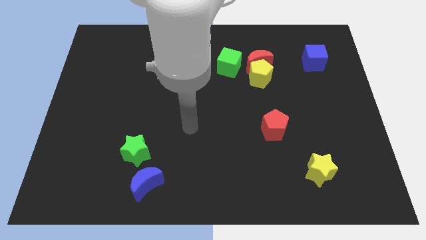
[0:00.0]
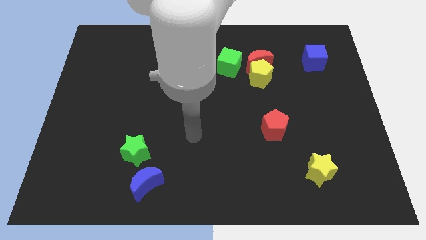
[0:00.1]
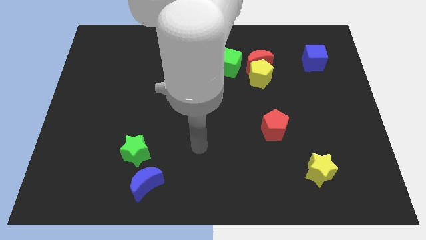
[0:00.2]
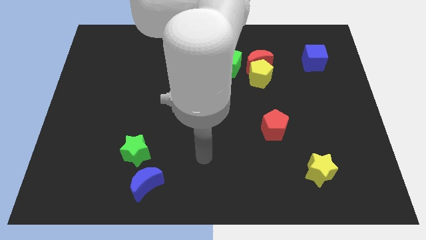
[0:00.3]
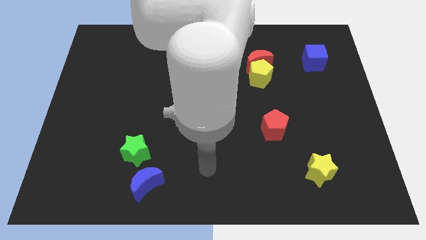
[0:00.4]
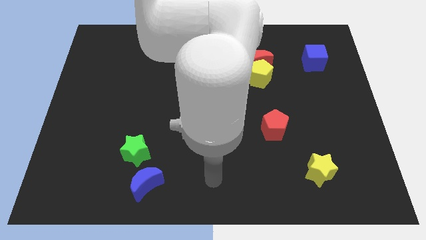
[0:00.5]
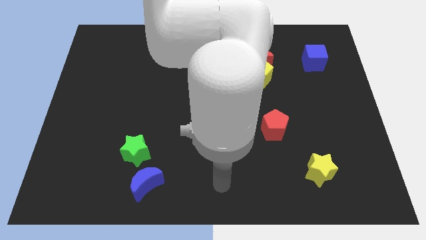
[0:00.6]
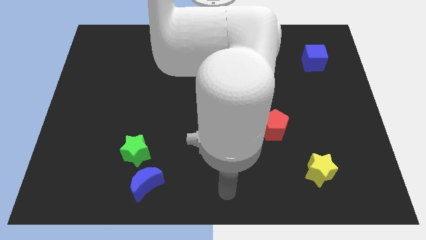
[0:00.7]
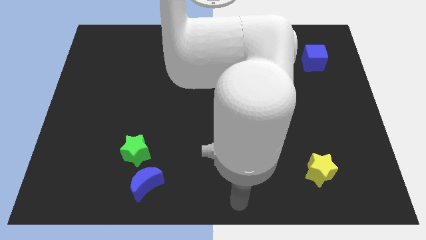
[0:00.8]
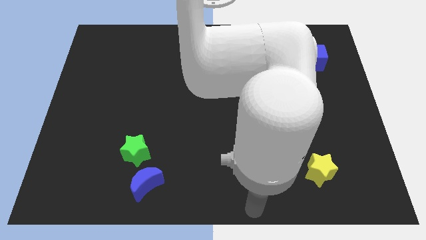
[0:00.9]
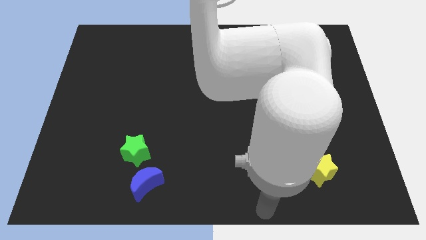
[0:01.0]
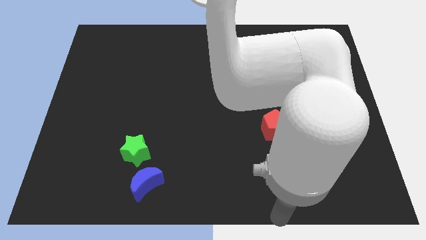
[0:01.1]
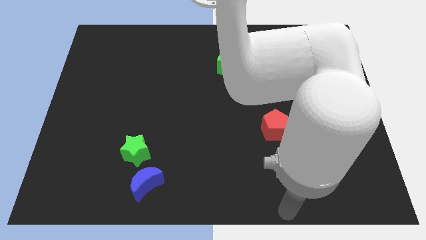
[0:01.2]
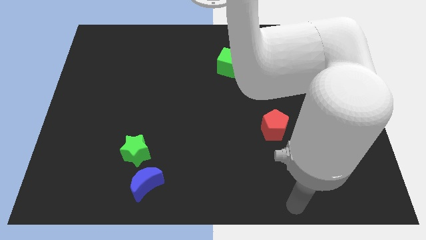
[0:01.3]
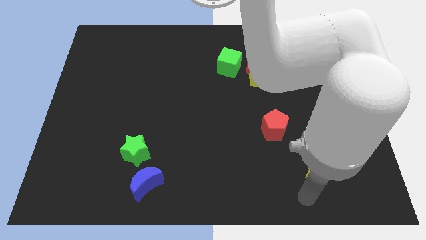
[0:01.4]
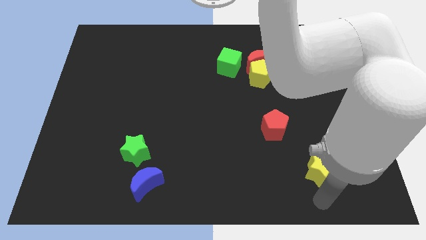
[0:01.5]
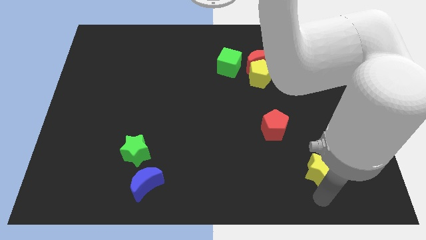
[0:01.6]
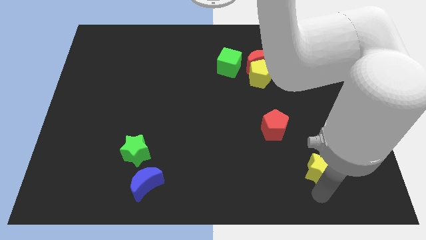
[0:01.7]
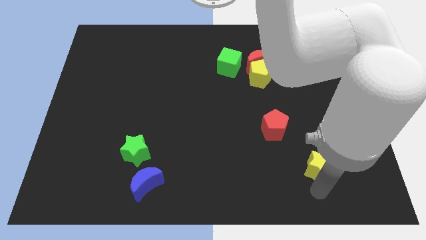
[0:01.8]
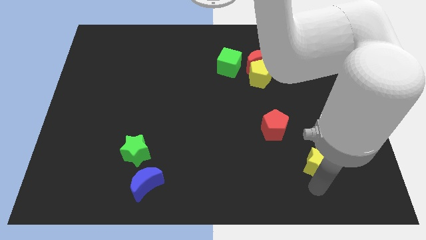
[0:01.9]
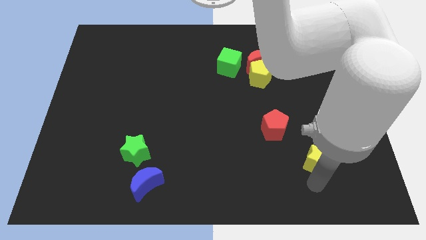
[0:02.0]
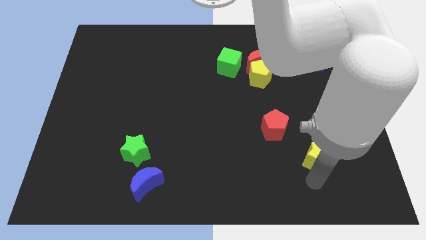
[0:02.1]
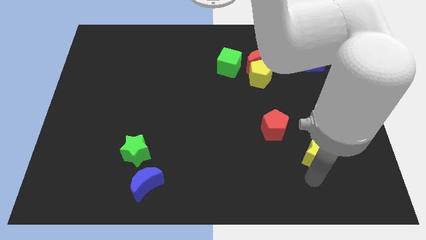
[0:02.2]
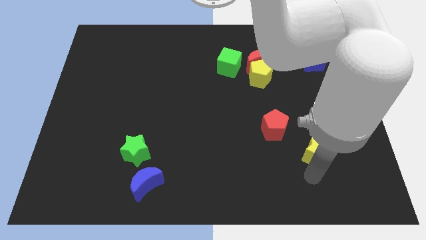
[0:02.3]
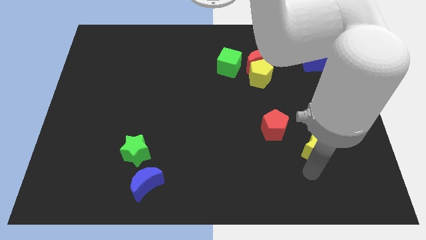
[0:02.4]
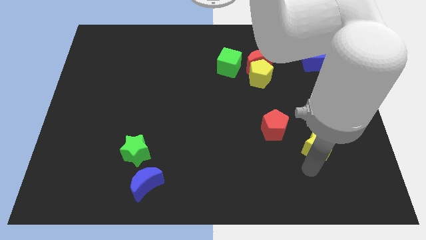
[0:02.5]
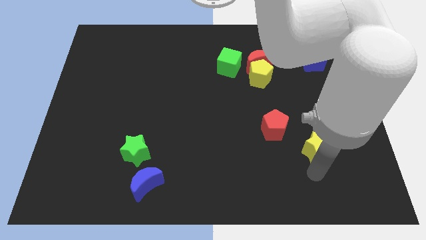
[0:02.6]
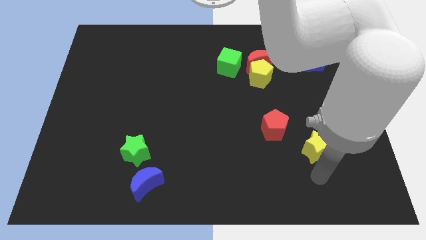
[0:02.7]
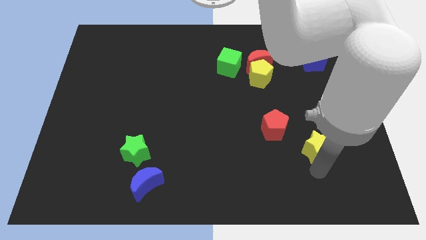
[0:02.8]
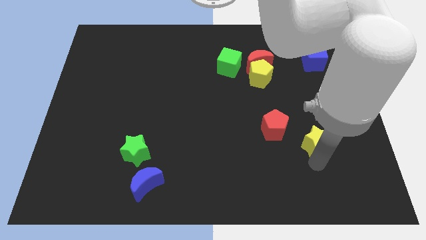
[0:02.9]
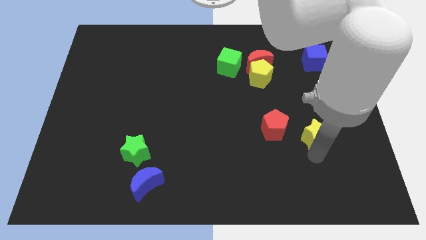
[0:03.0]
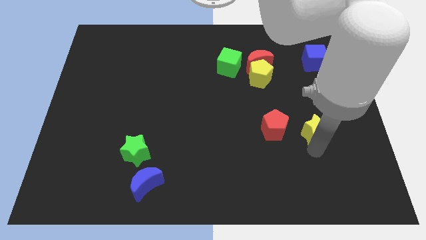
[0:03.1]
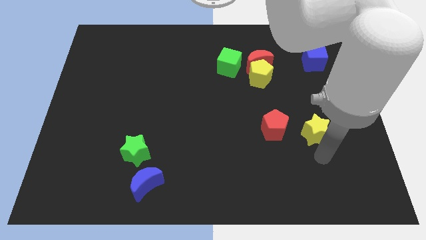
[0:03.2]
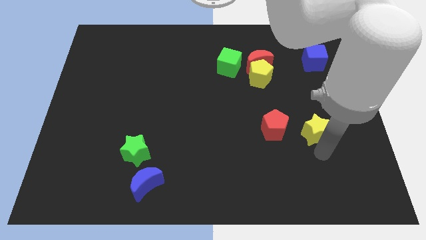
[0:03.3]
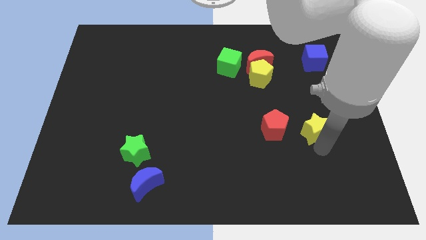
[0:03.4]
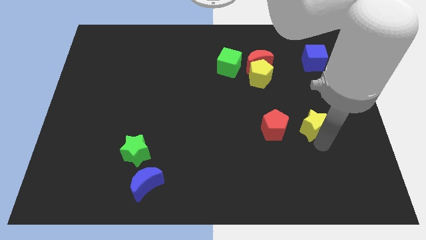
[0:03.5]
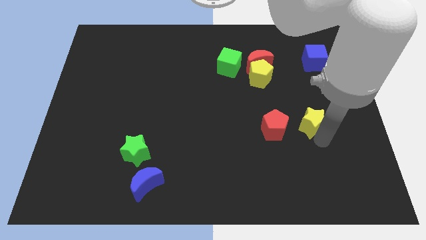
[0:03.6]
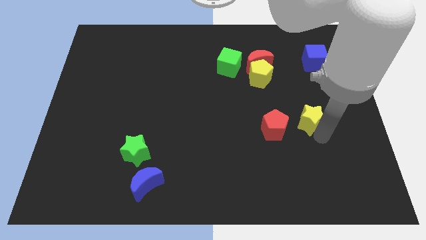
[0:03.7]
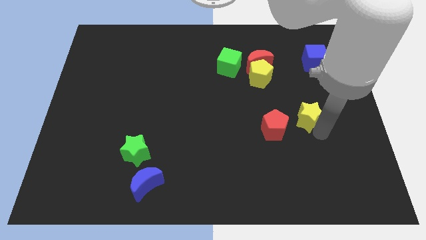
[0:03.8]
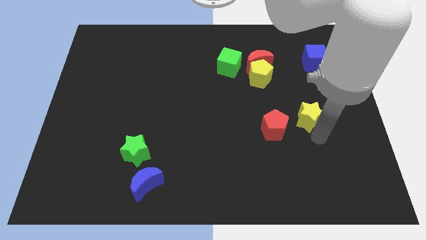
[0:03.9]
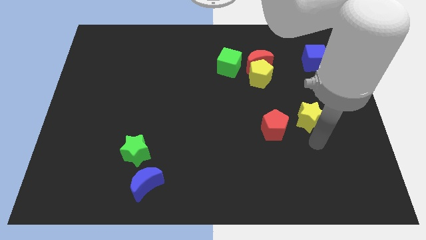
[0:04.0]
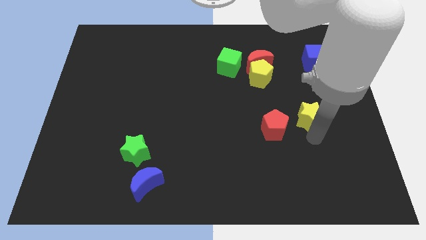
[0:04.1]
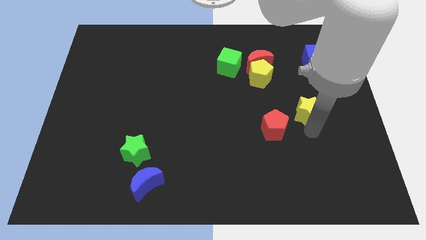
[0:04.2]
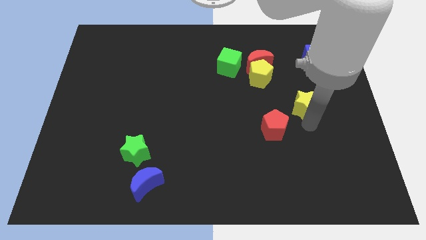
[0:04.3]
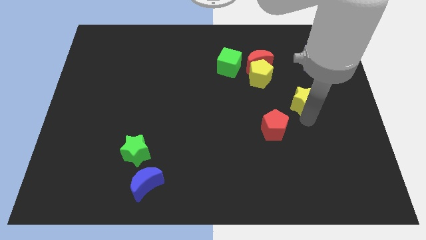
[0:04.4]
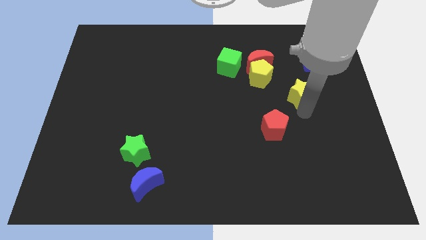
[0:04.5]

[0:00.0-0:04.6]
push the yellow star up

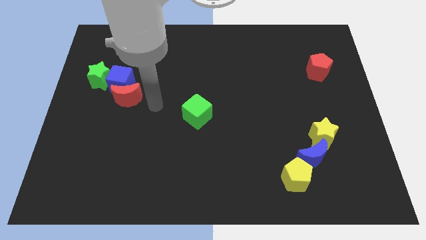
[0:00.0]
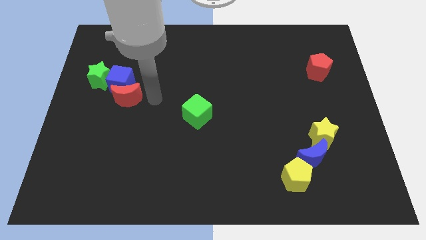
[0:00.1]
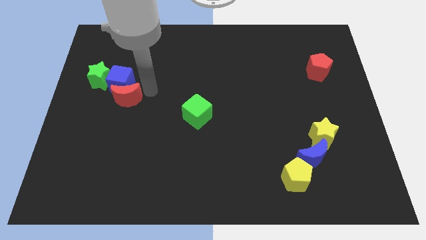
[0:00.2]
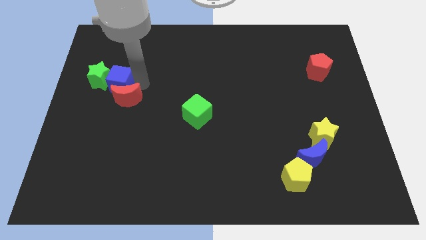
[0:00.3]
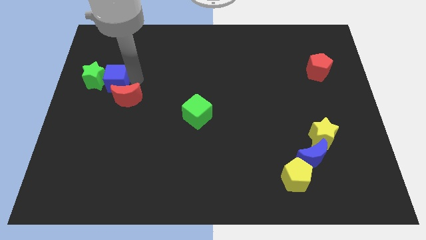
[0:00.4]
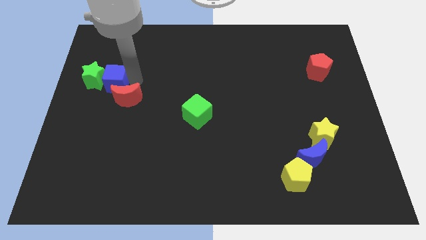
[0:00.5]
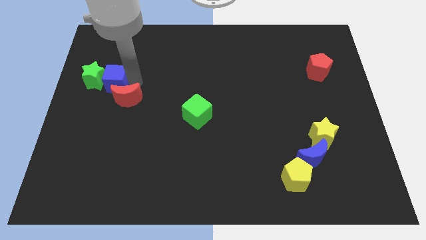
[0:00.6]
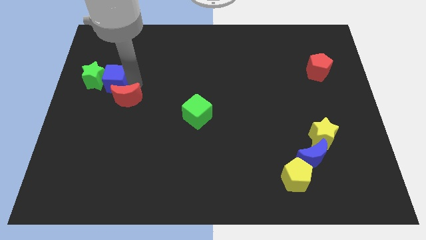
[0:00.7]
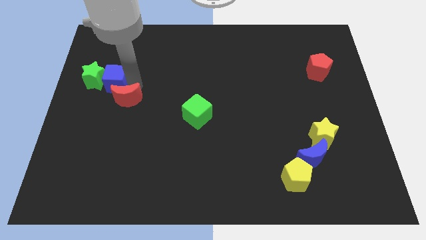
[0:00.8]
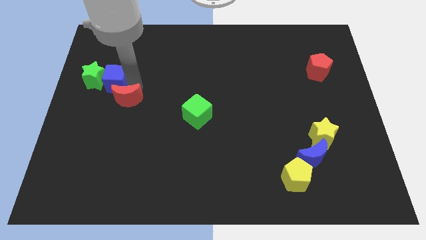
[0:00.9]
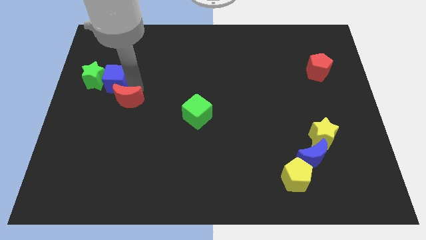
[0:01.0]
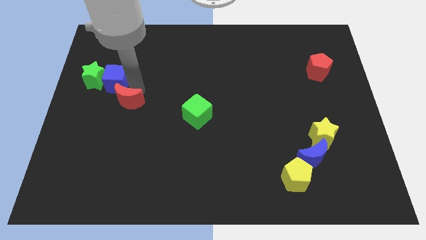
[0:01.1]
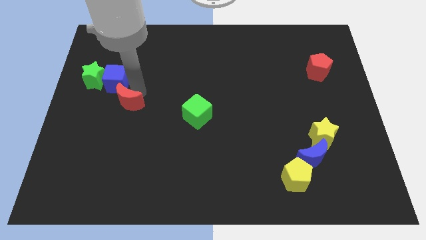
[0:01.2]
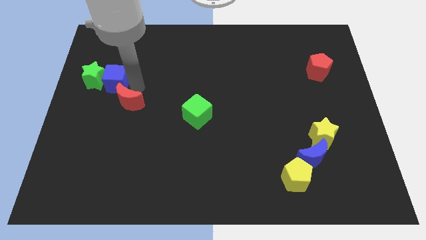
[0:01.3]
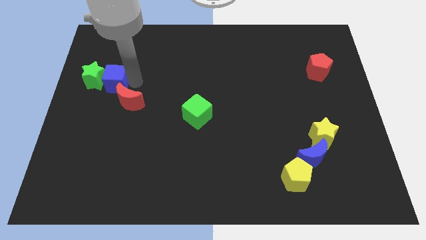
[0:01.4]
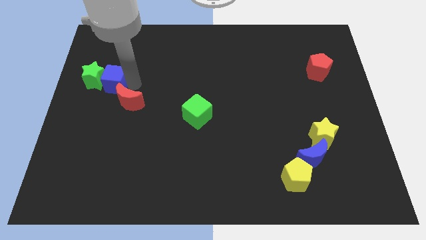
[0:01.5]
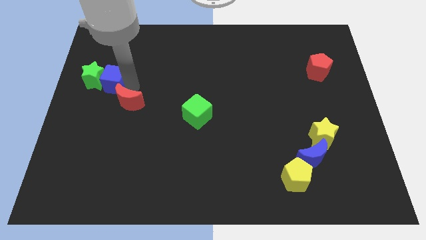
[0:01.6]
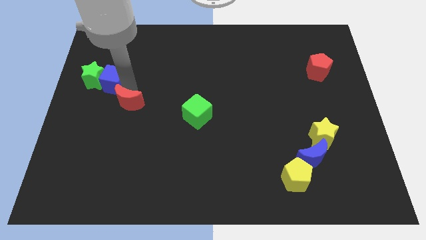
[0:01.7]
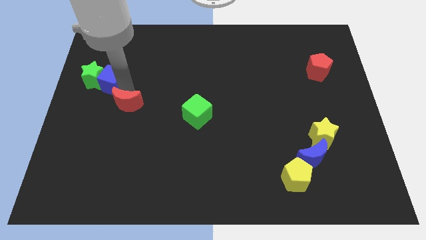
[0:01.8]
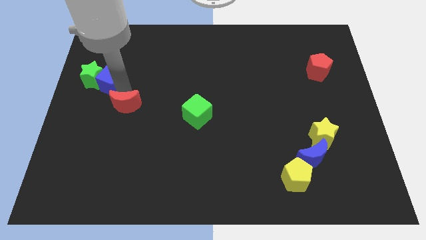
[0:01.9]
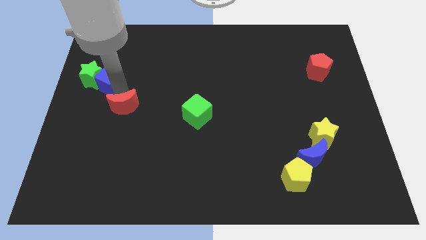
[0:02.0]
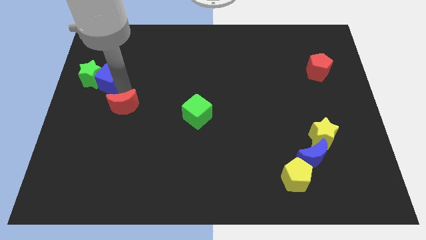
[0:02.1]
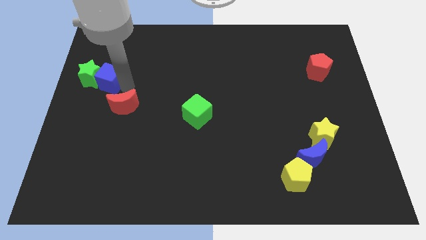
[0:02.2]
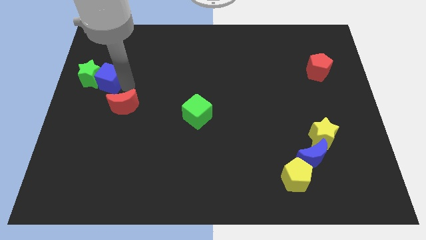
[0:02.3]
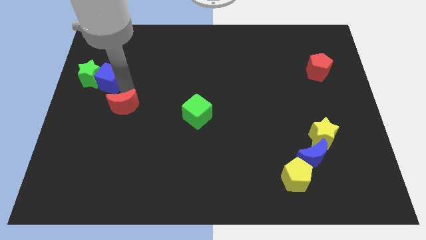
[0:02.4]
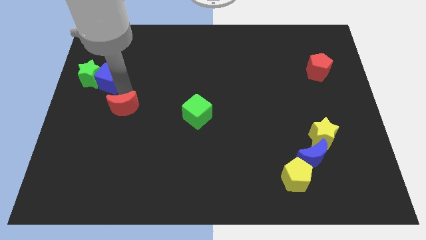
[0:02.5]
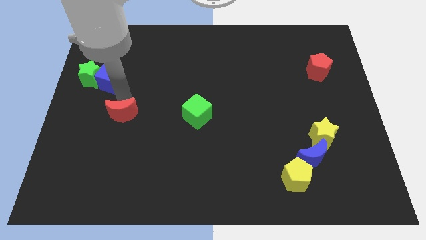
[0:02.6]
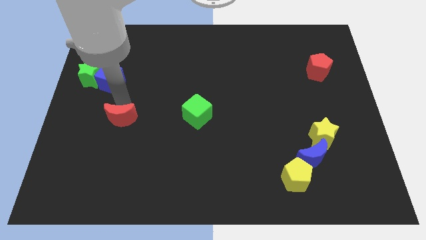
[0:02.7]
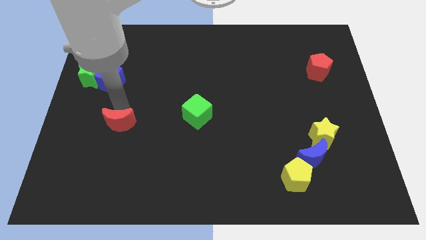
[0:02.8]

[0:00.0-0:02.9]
move the red moon down somewhat

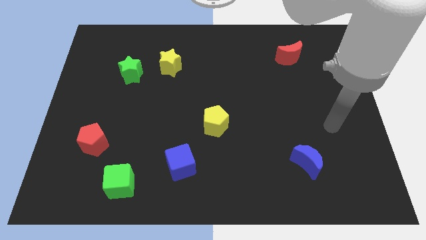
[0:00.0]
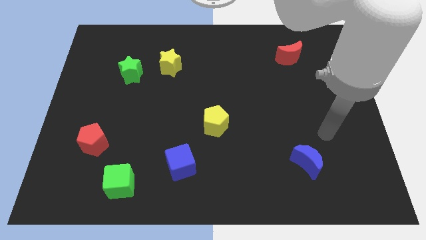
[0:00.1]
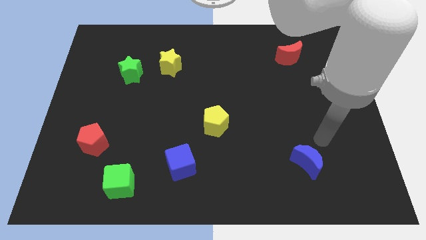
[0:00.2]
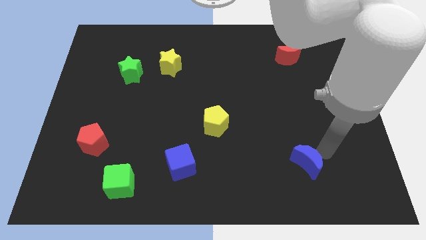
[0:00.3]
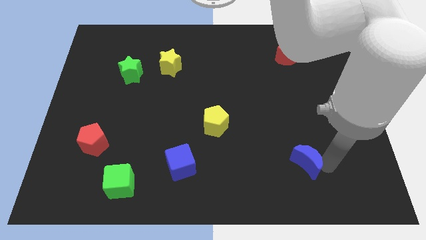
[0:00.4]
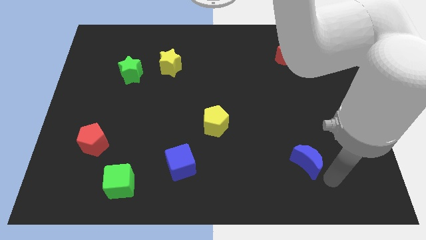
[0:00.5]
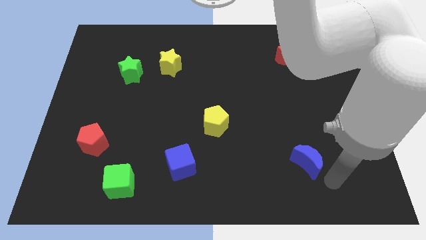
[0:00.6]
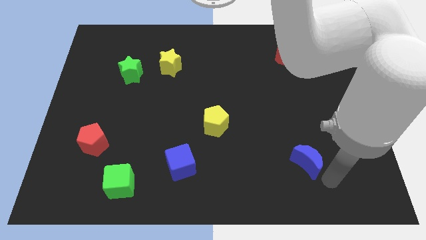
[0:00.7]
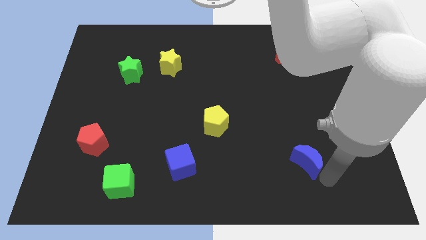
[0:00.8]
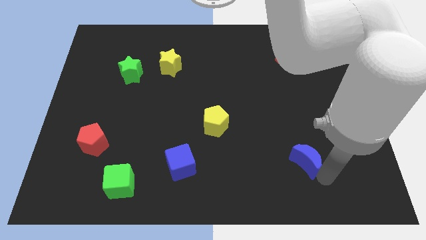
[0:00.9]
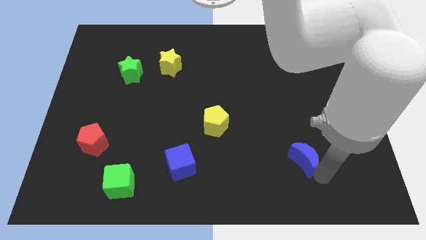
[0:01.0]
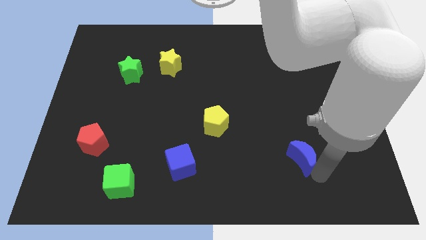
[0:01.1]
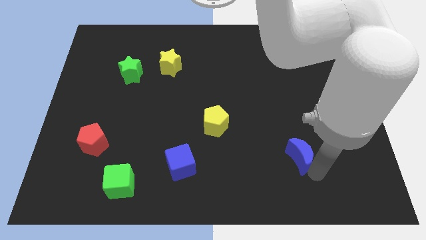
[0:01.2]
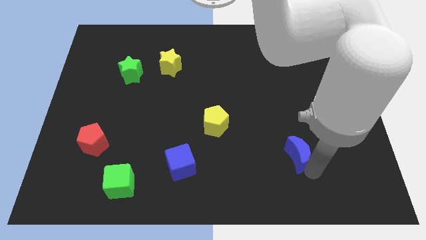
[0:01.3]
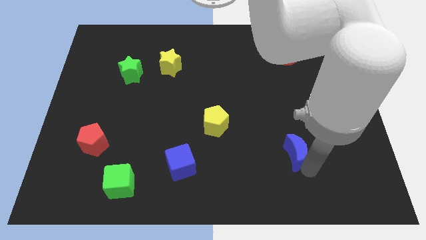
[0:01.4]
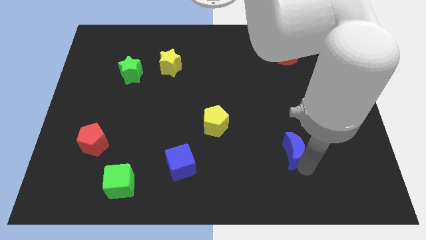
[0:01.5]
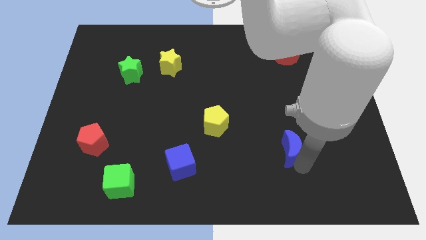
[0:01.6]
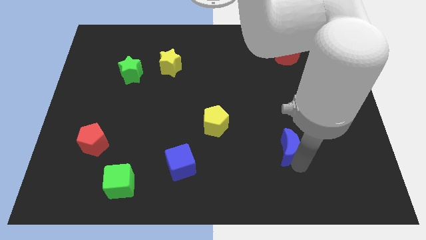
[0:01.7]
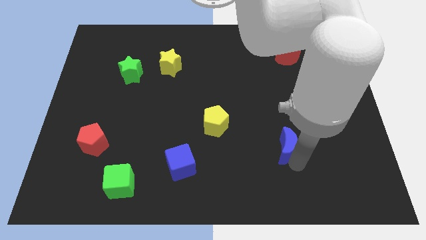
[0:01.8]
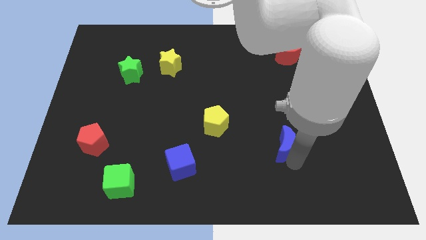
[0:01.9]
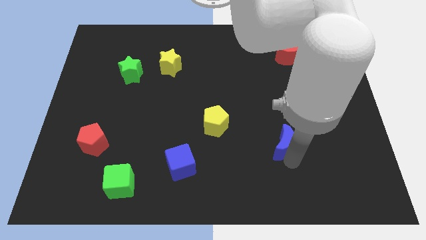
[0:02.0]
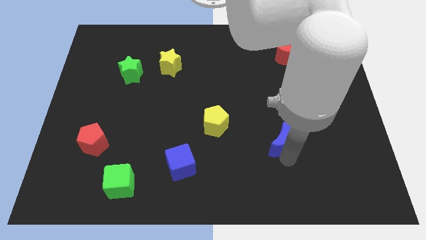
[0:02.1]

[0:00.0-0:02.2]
slightly move the blue moon diagonally up and to the left
